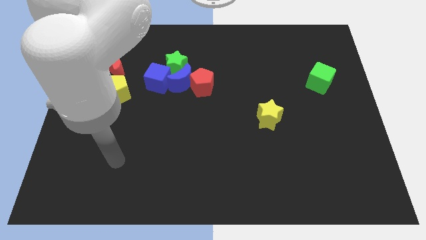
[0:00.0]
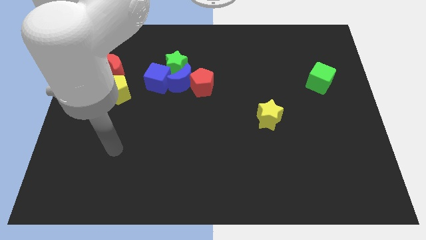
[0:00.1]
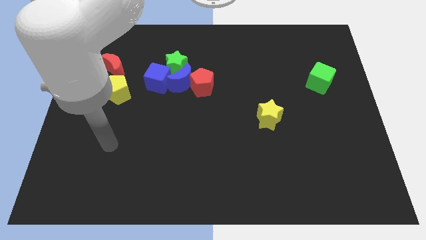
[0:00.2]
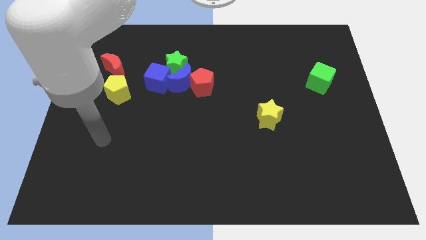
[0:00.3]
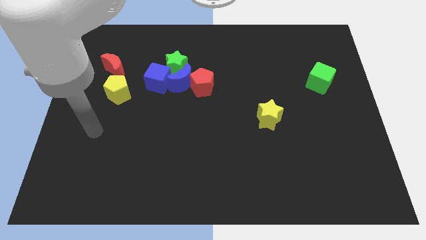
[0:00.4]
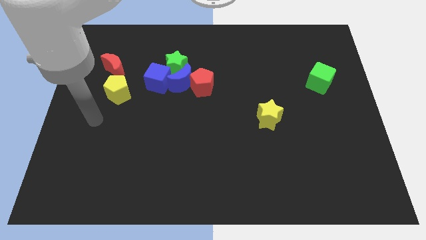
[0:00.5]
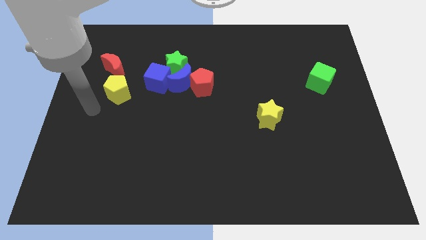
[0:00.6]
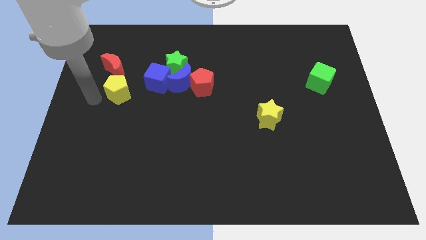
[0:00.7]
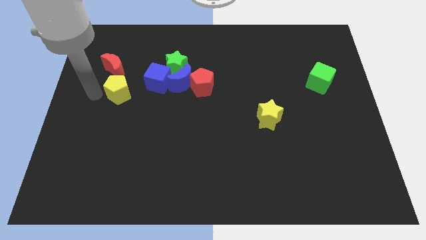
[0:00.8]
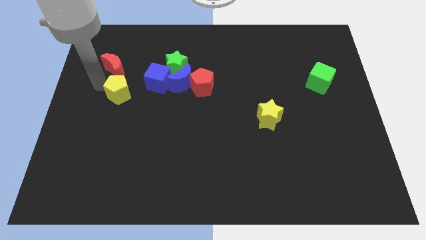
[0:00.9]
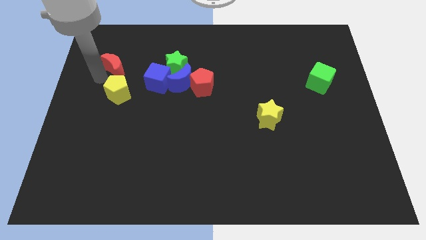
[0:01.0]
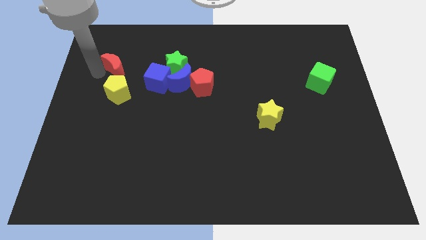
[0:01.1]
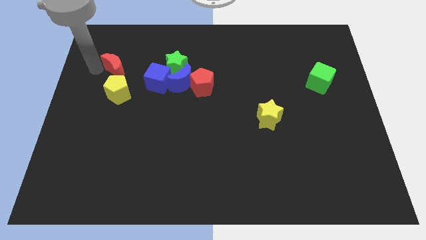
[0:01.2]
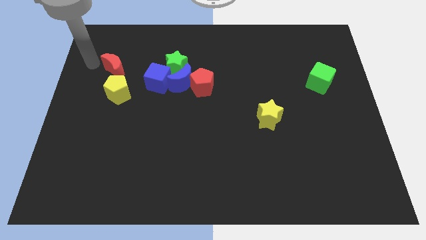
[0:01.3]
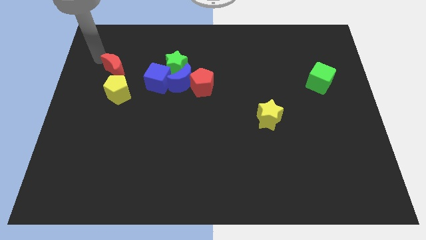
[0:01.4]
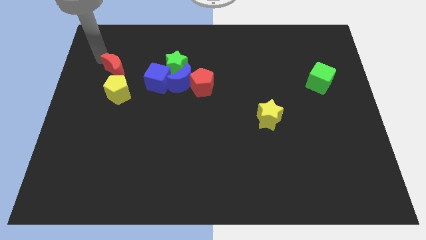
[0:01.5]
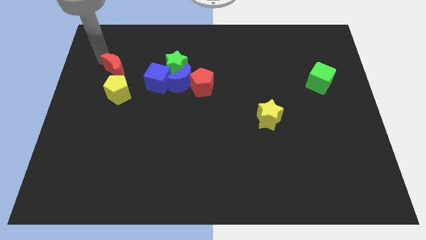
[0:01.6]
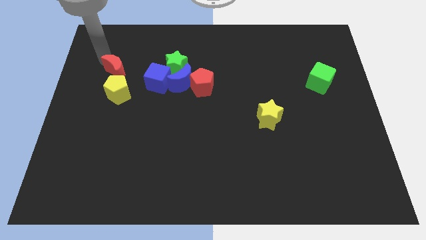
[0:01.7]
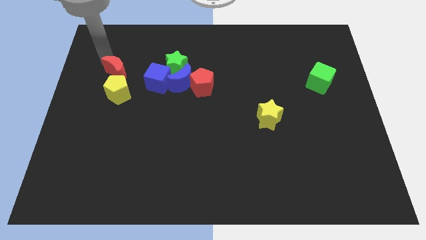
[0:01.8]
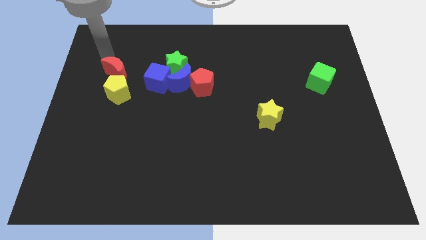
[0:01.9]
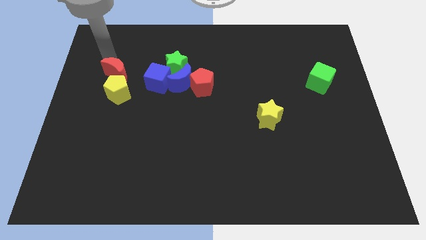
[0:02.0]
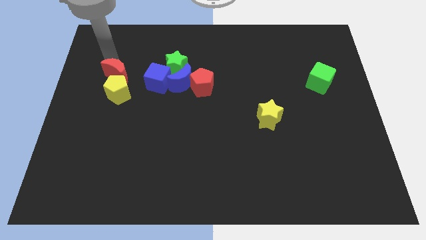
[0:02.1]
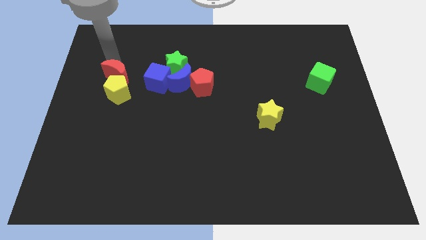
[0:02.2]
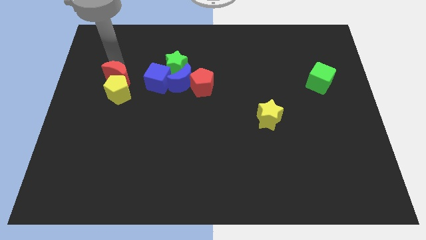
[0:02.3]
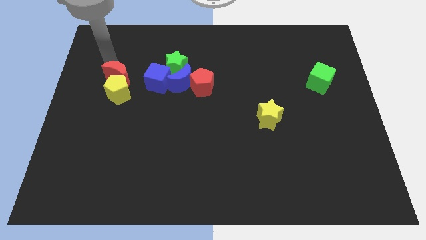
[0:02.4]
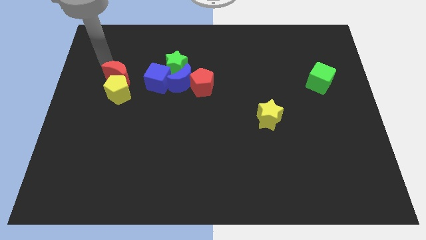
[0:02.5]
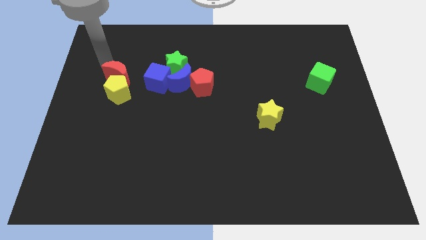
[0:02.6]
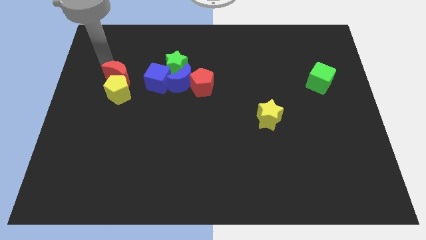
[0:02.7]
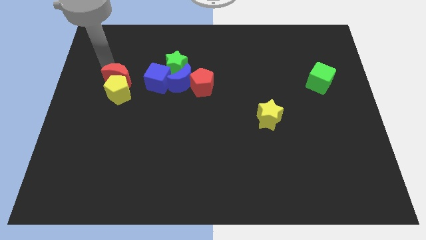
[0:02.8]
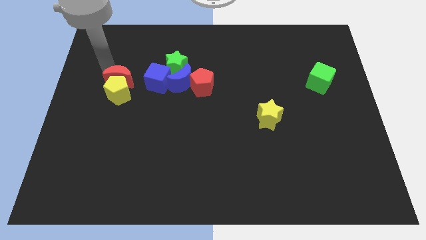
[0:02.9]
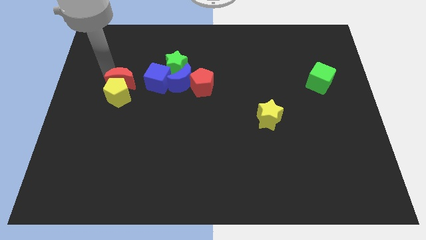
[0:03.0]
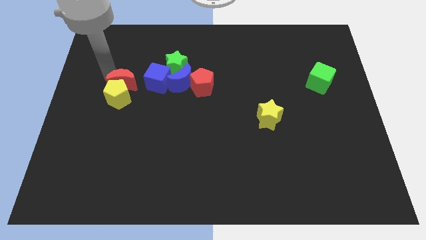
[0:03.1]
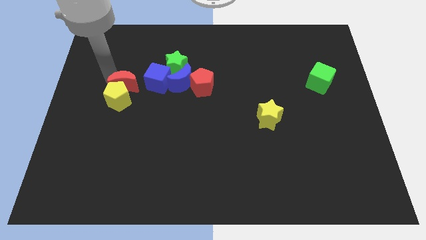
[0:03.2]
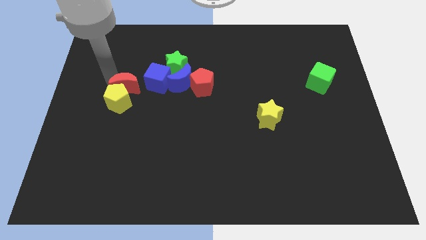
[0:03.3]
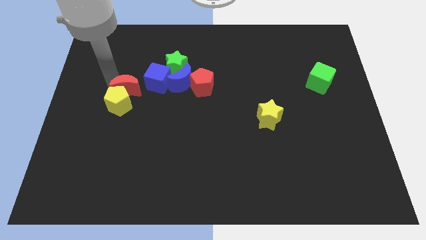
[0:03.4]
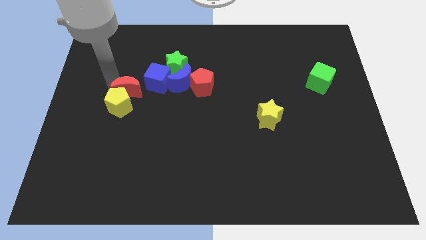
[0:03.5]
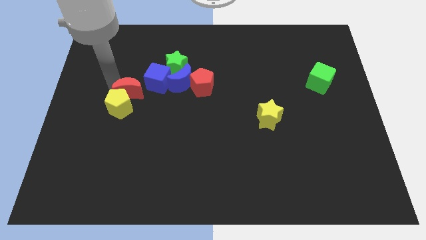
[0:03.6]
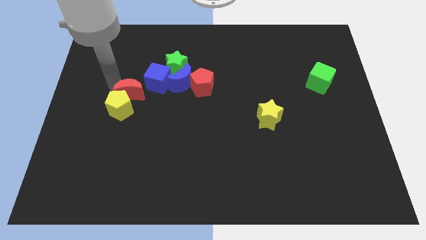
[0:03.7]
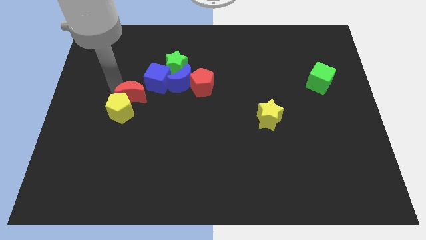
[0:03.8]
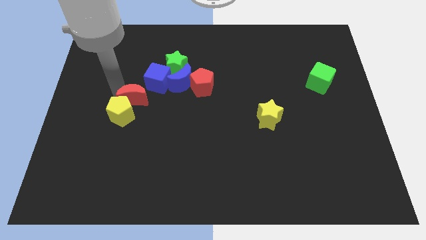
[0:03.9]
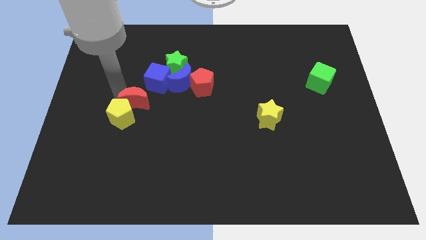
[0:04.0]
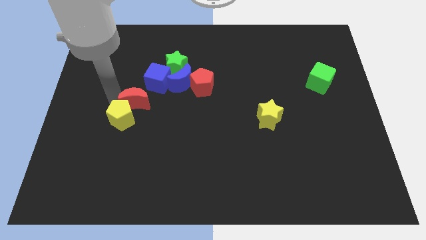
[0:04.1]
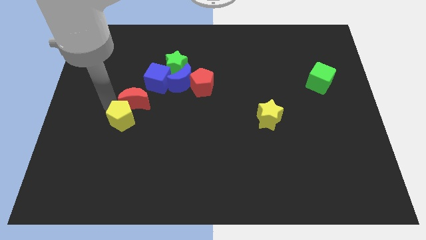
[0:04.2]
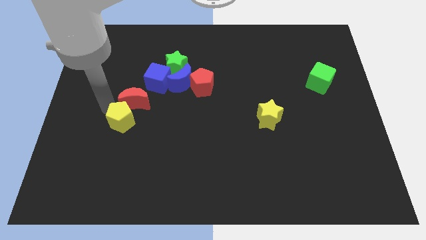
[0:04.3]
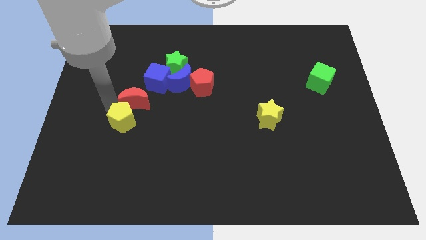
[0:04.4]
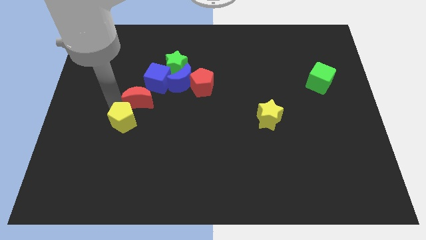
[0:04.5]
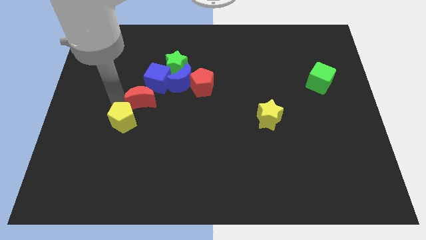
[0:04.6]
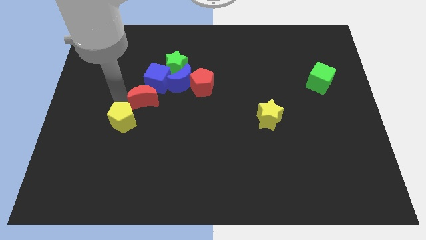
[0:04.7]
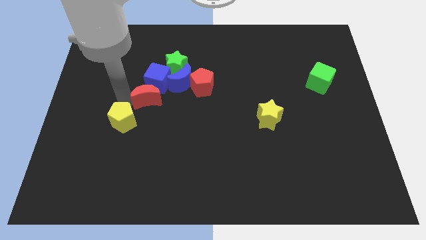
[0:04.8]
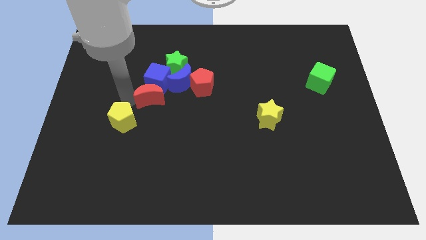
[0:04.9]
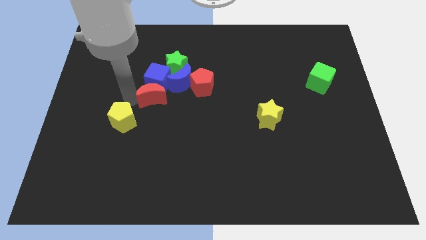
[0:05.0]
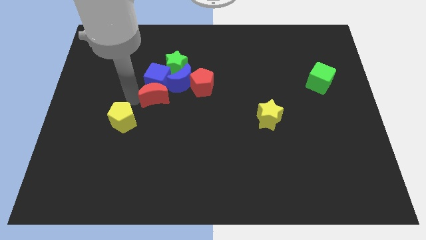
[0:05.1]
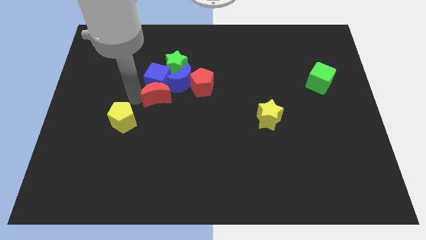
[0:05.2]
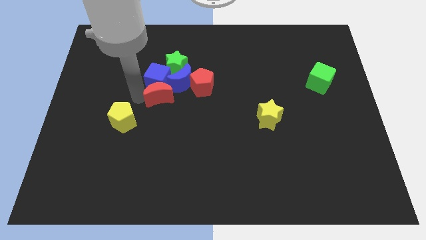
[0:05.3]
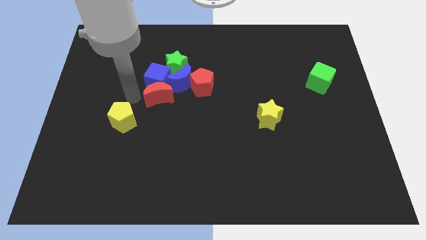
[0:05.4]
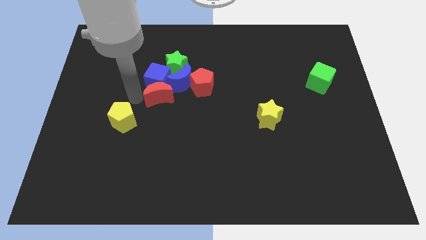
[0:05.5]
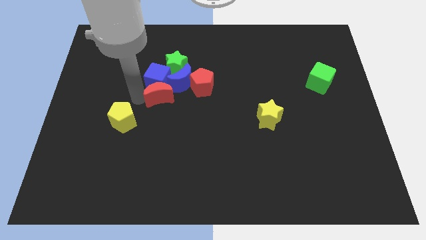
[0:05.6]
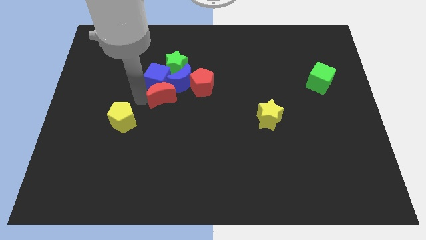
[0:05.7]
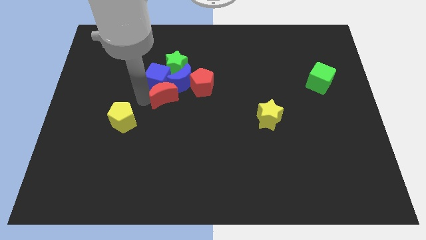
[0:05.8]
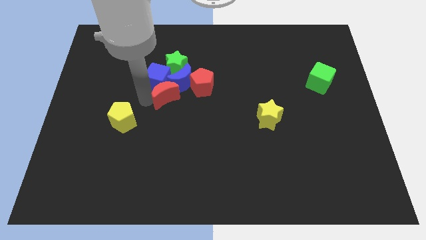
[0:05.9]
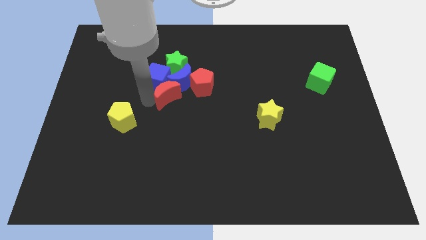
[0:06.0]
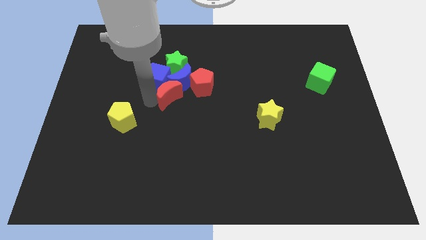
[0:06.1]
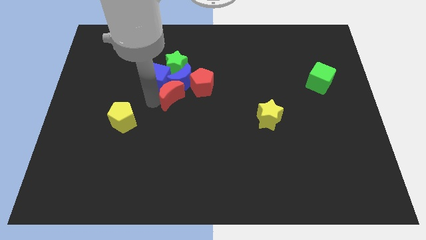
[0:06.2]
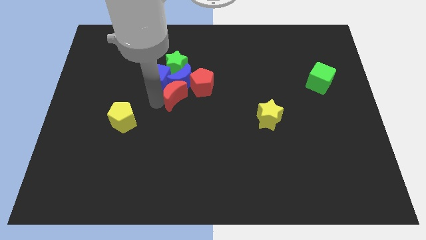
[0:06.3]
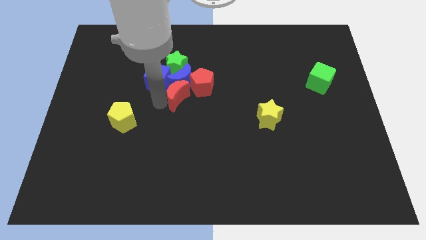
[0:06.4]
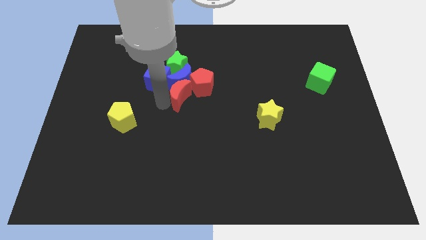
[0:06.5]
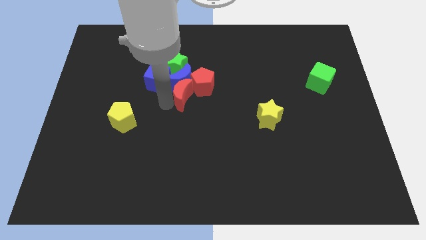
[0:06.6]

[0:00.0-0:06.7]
move the red moon next to the red pentagon
